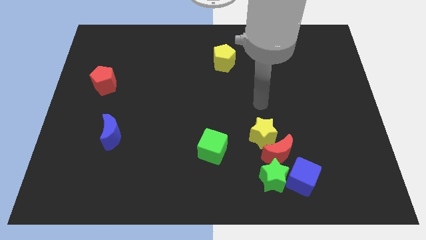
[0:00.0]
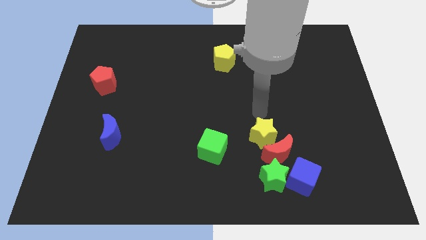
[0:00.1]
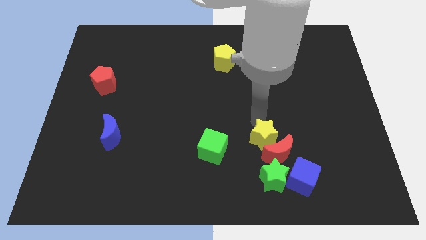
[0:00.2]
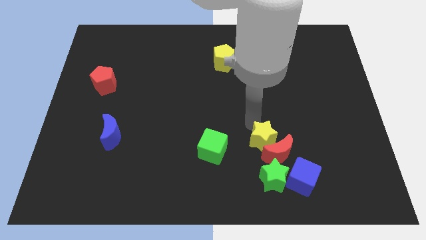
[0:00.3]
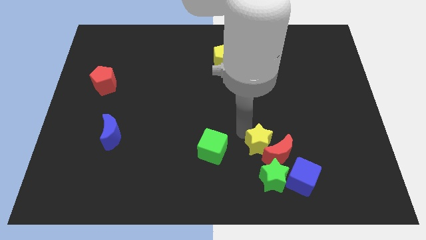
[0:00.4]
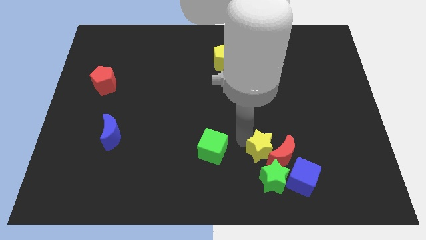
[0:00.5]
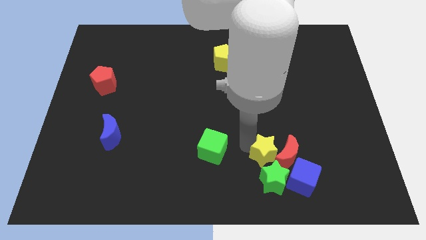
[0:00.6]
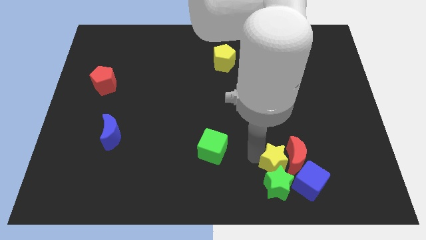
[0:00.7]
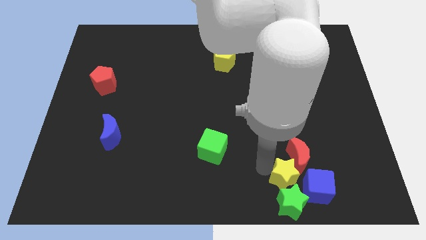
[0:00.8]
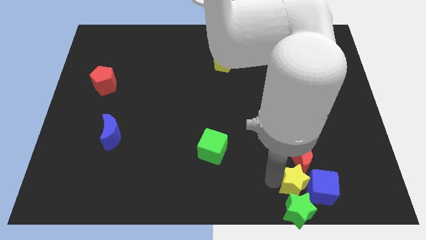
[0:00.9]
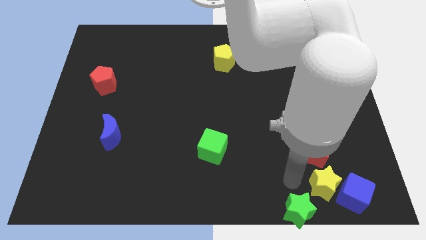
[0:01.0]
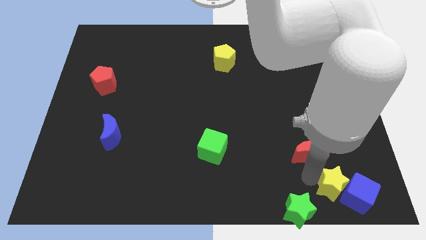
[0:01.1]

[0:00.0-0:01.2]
separate the red moon from the yellow star, green star, and blue cube

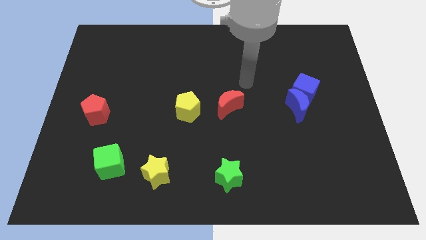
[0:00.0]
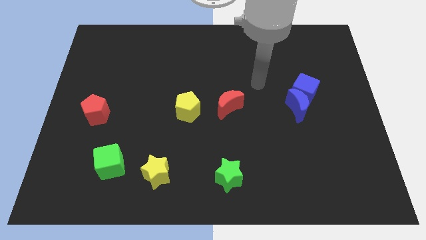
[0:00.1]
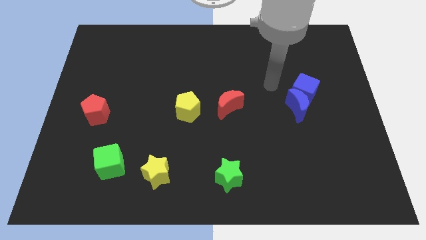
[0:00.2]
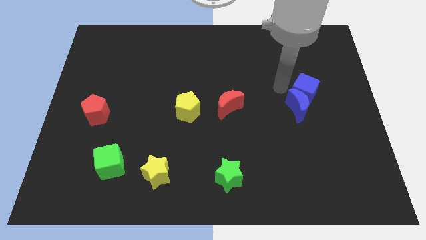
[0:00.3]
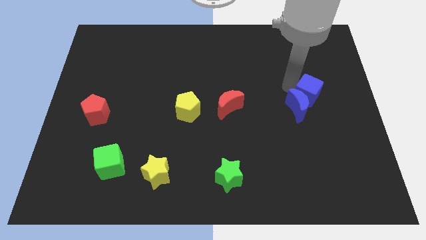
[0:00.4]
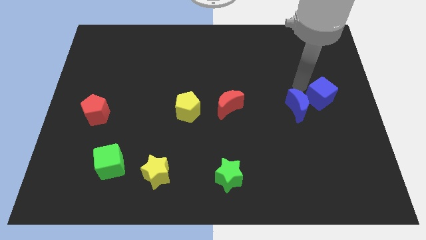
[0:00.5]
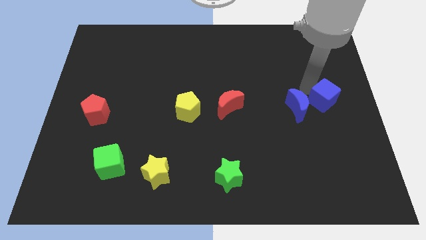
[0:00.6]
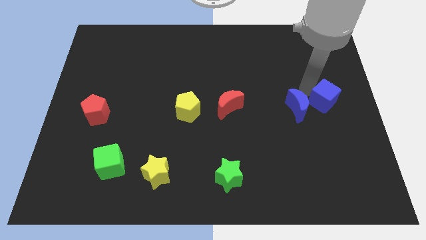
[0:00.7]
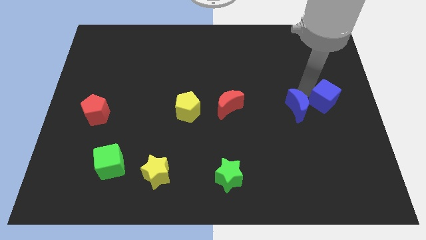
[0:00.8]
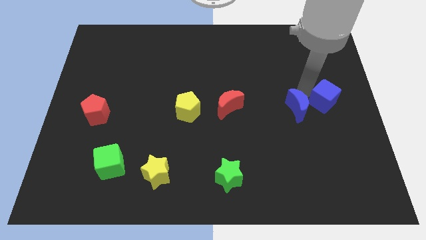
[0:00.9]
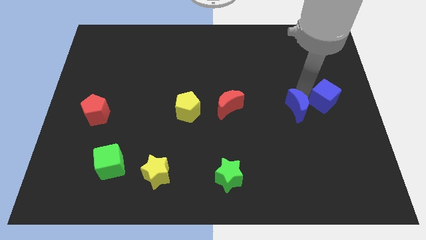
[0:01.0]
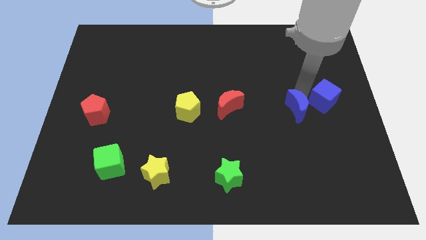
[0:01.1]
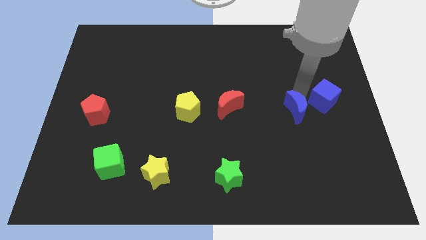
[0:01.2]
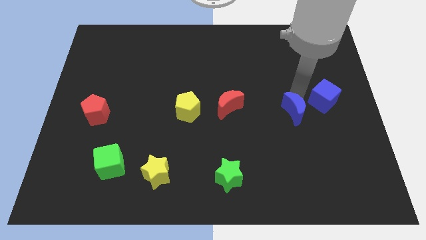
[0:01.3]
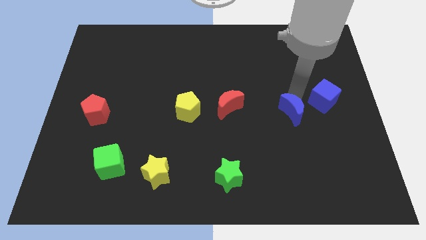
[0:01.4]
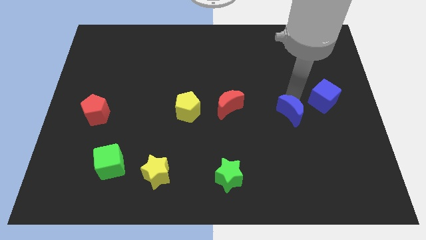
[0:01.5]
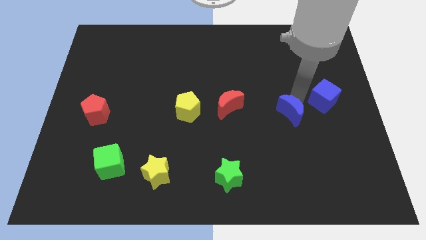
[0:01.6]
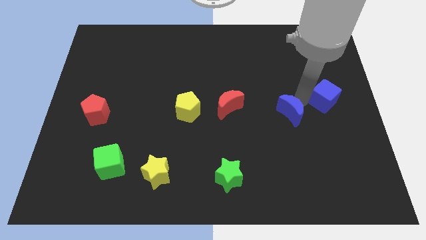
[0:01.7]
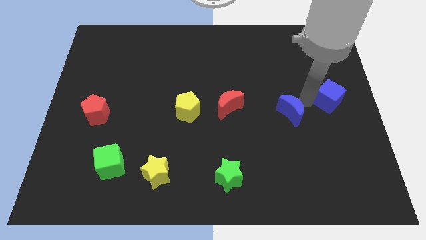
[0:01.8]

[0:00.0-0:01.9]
separate the blue moon from the blue cube

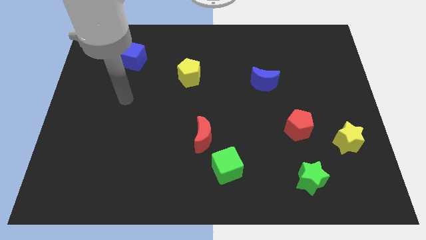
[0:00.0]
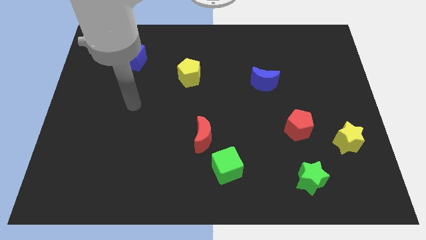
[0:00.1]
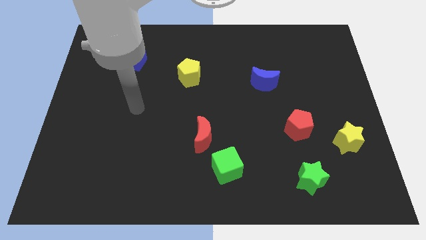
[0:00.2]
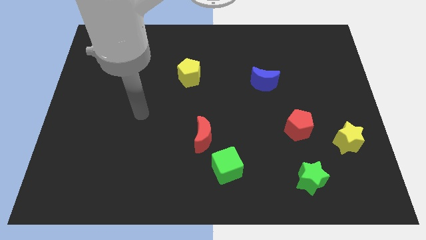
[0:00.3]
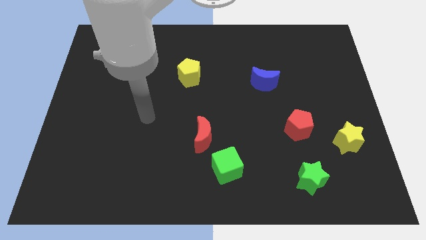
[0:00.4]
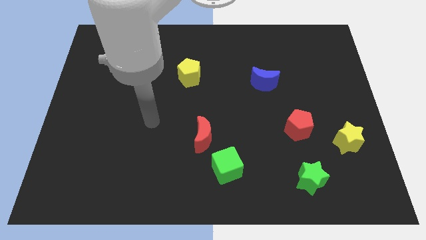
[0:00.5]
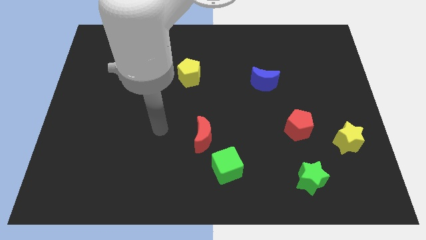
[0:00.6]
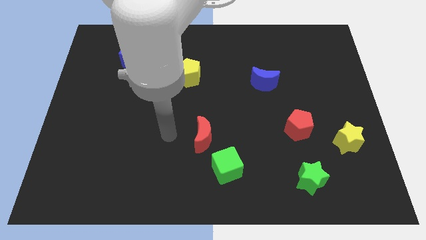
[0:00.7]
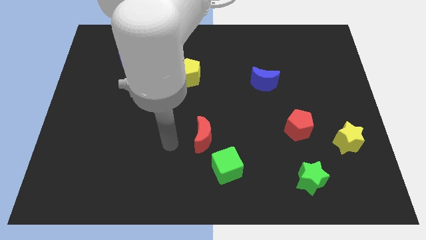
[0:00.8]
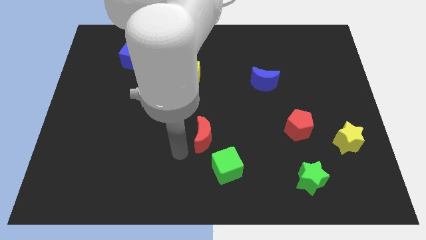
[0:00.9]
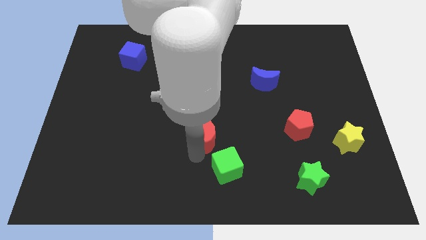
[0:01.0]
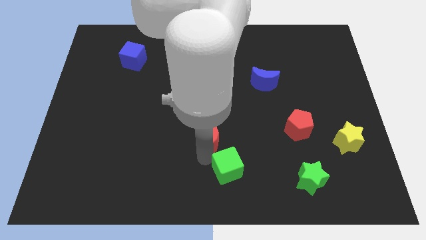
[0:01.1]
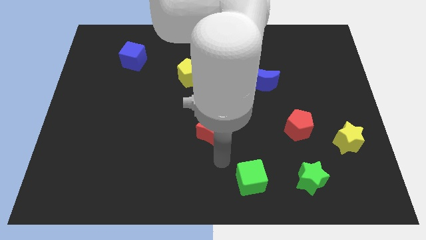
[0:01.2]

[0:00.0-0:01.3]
move the red moon away from the green cube

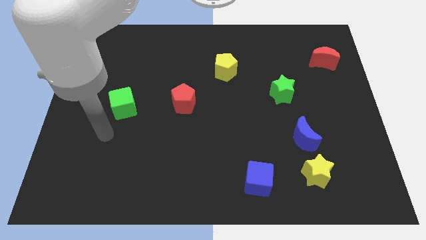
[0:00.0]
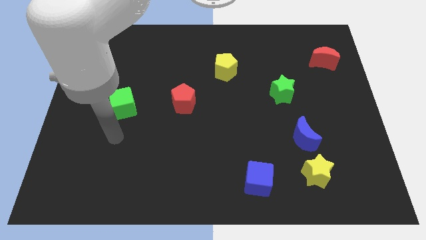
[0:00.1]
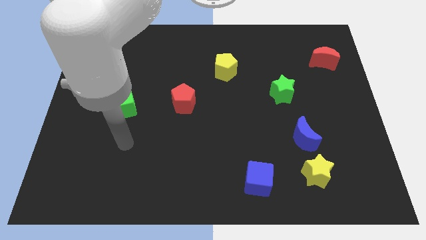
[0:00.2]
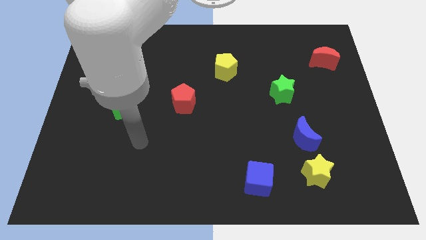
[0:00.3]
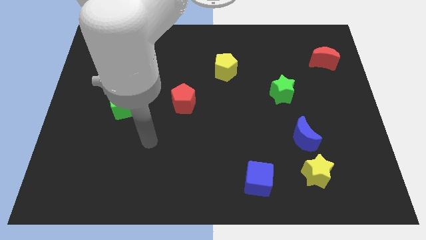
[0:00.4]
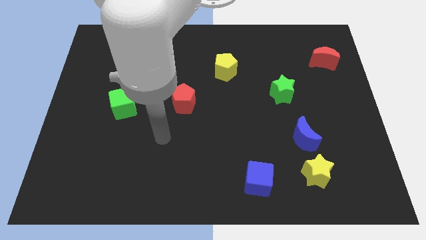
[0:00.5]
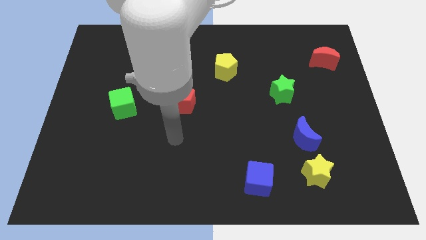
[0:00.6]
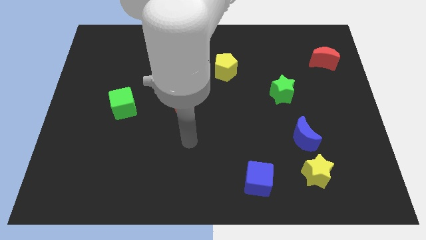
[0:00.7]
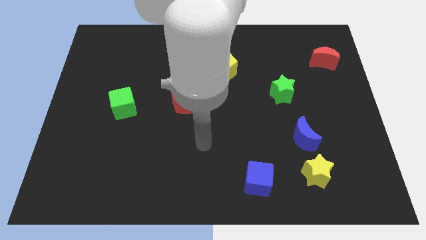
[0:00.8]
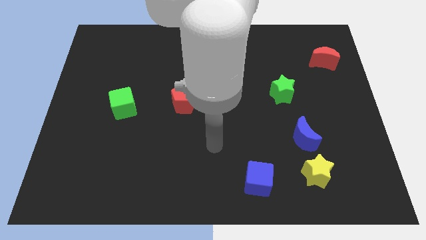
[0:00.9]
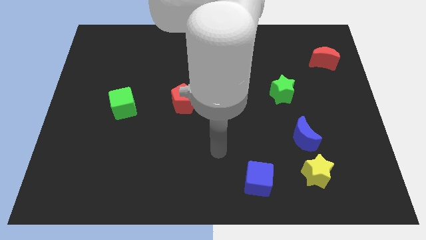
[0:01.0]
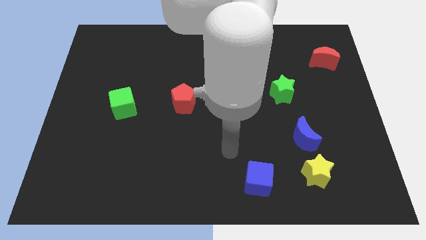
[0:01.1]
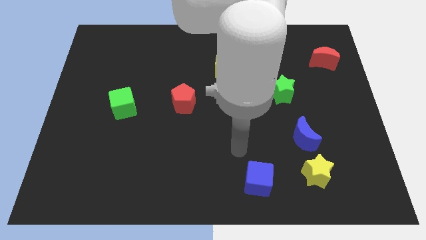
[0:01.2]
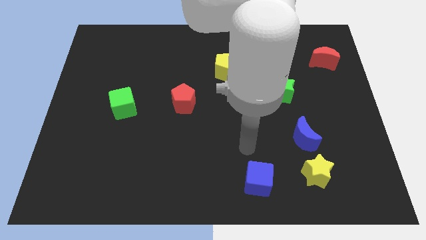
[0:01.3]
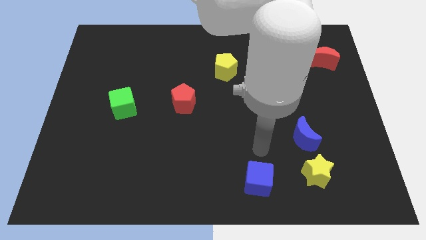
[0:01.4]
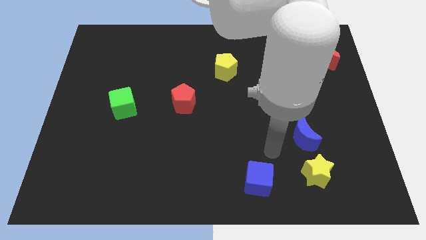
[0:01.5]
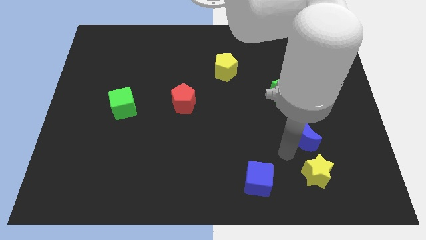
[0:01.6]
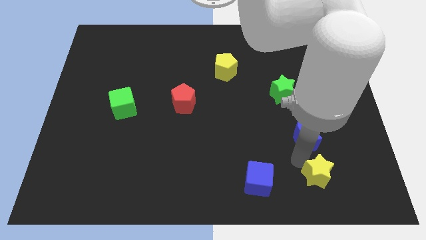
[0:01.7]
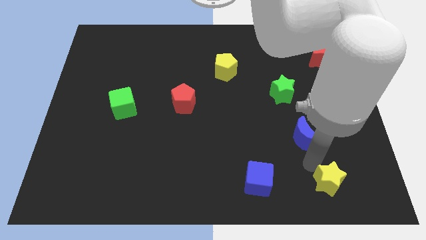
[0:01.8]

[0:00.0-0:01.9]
pull the blue moon apart from the yellow star

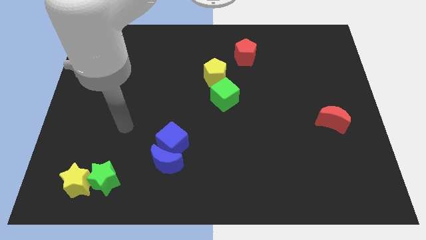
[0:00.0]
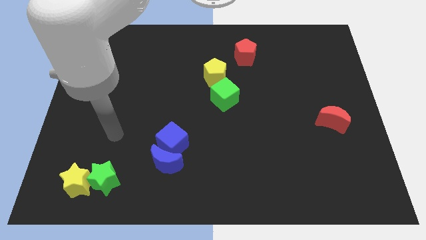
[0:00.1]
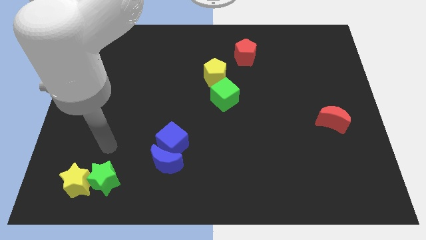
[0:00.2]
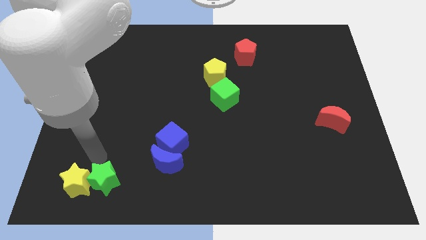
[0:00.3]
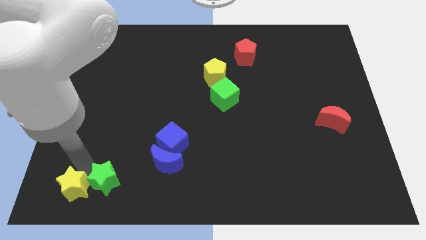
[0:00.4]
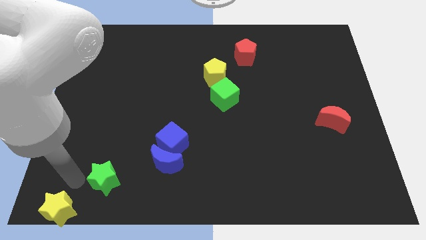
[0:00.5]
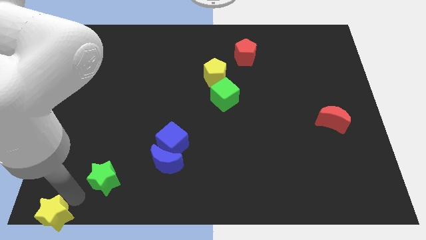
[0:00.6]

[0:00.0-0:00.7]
move the green star away from the yellow star

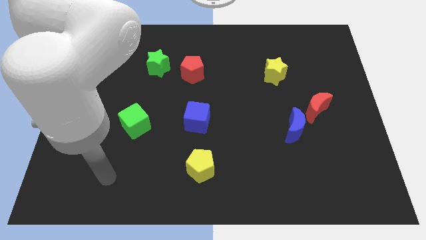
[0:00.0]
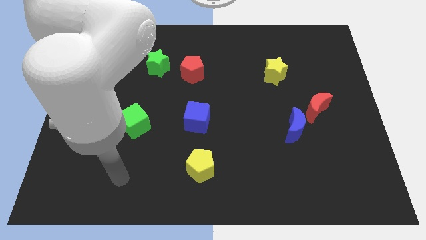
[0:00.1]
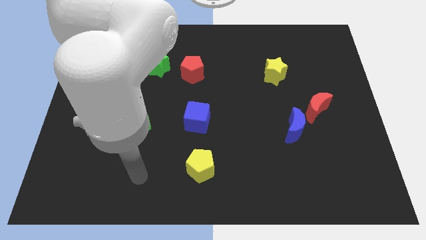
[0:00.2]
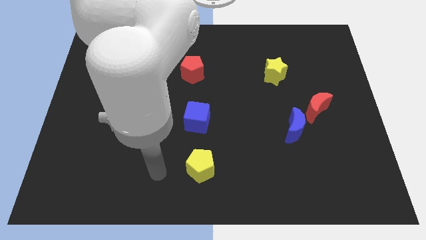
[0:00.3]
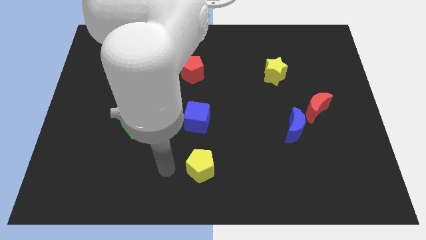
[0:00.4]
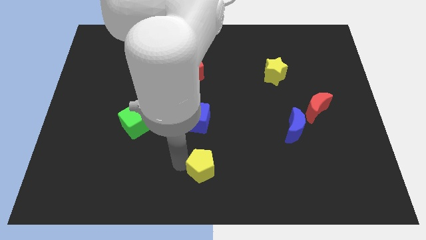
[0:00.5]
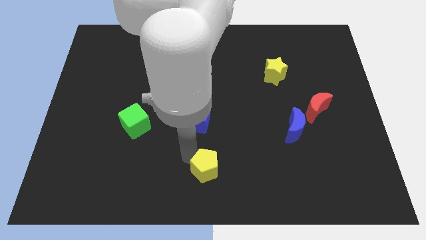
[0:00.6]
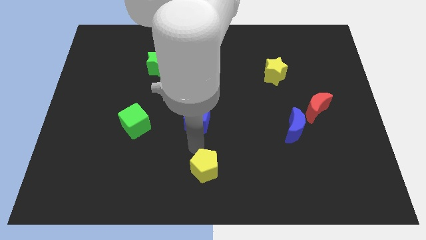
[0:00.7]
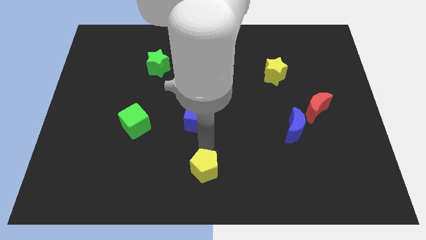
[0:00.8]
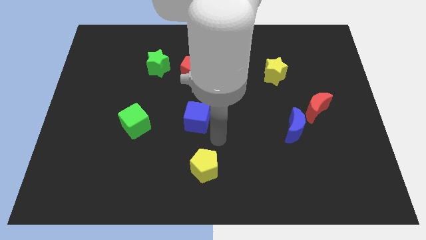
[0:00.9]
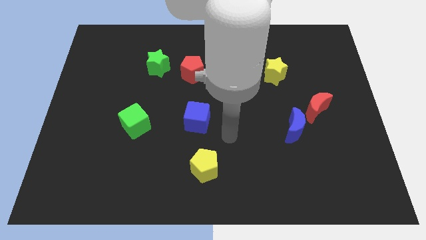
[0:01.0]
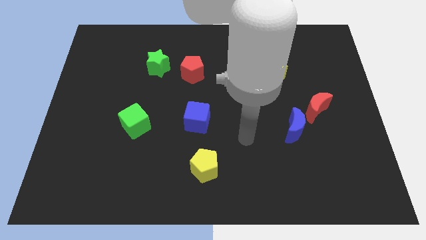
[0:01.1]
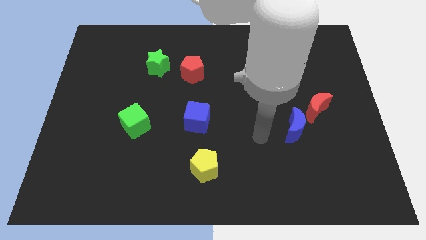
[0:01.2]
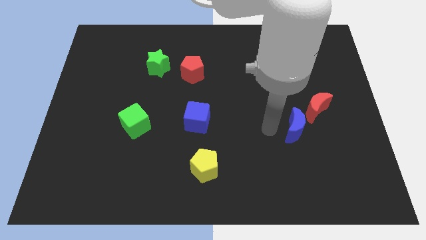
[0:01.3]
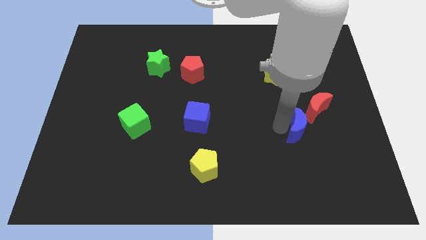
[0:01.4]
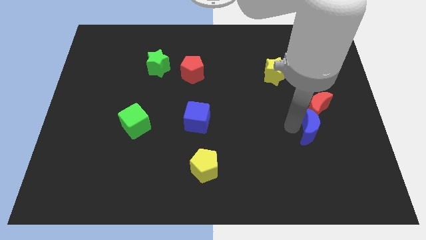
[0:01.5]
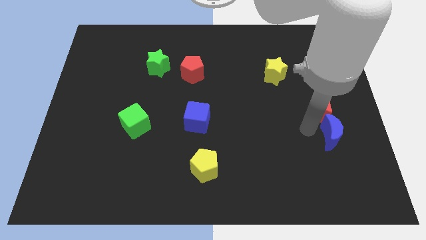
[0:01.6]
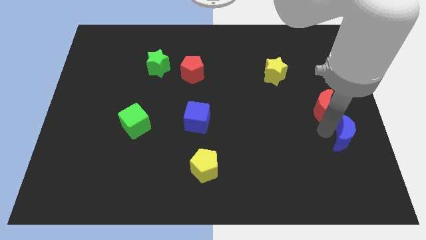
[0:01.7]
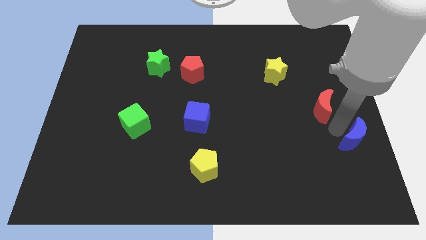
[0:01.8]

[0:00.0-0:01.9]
separate the red moon from the blue moon

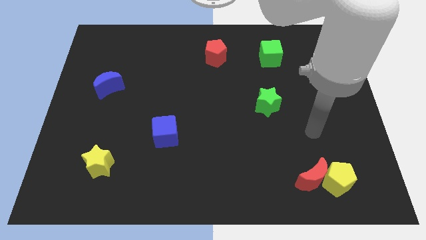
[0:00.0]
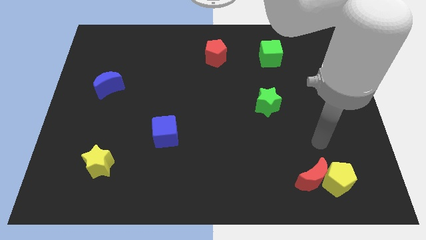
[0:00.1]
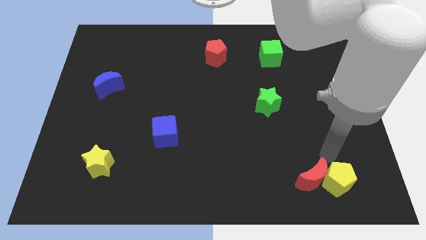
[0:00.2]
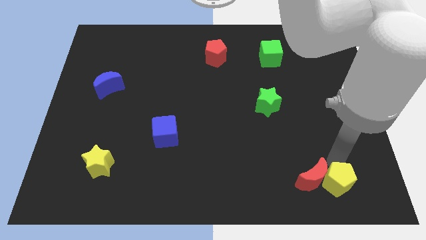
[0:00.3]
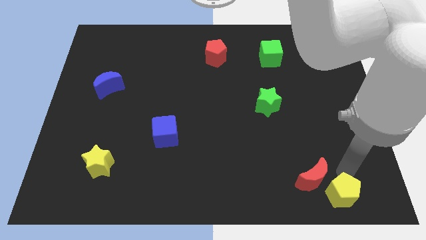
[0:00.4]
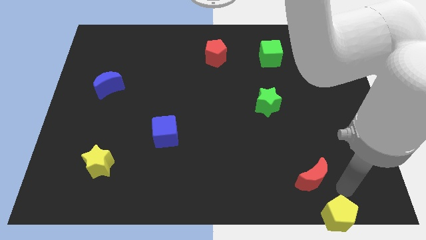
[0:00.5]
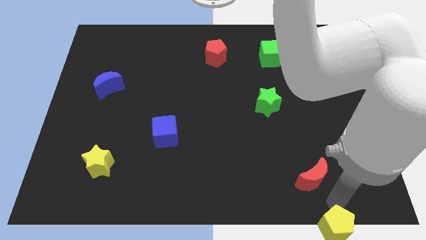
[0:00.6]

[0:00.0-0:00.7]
pull the red moon apart from the yellow pentagon
